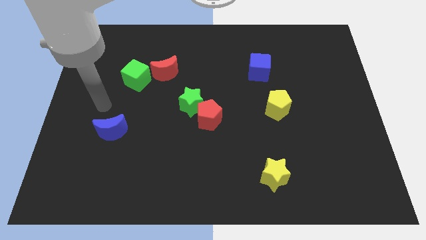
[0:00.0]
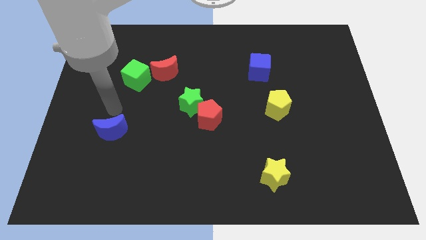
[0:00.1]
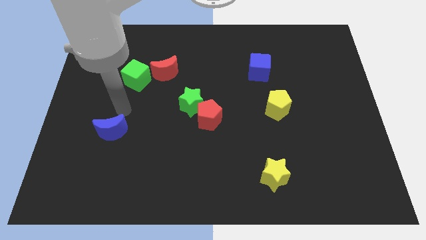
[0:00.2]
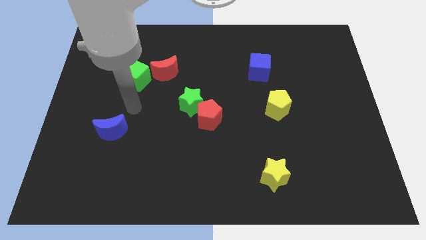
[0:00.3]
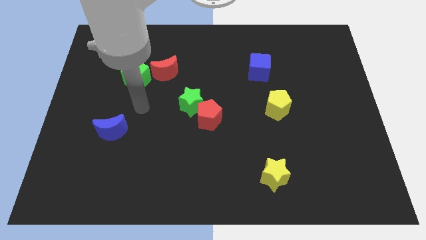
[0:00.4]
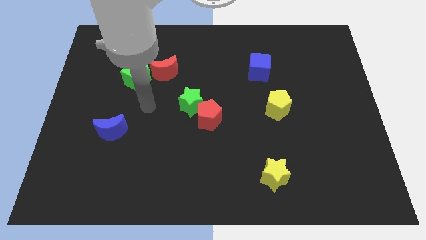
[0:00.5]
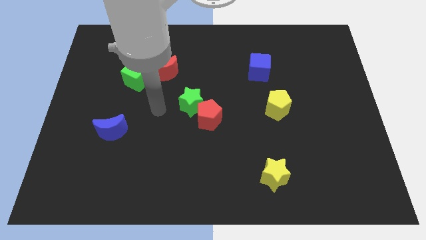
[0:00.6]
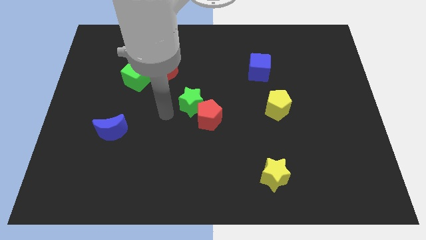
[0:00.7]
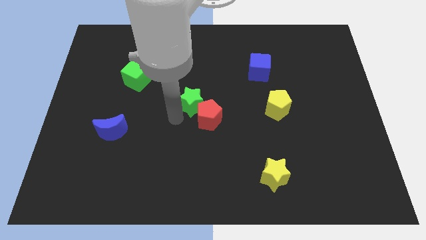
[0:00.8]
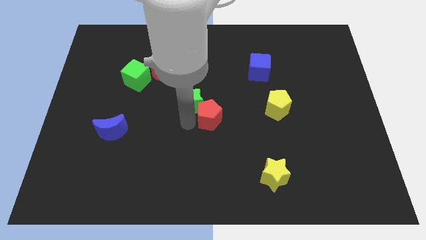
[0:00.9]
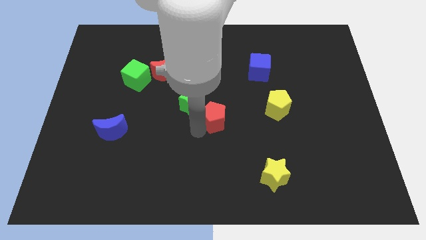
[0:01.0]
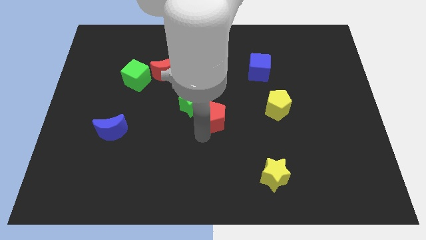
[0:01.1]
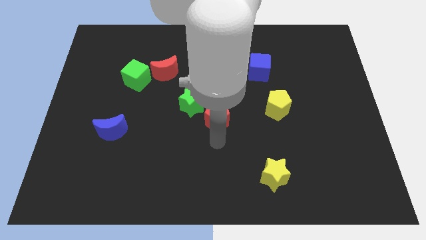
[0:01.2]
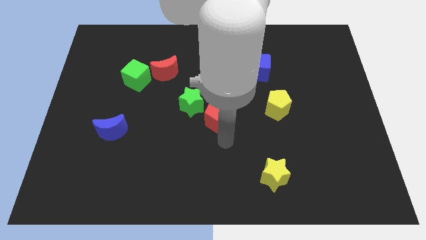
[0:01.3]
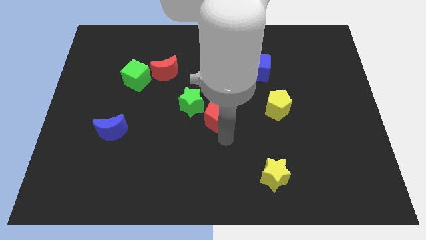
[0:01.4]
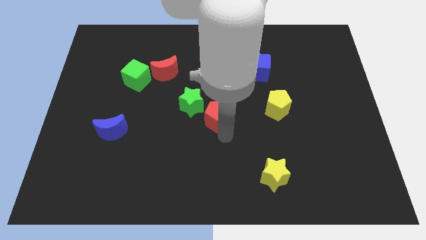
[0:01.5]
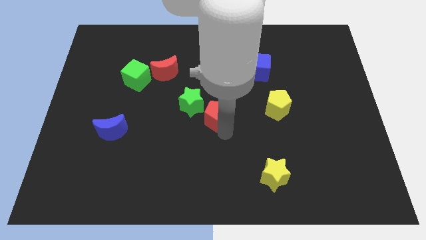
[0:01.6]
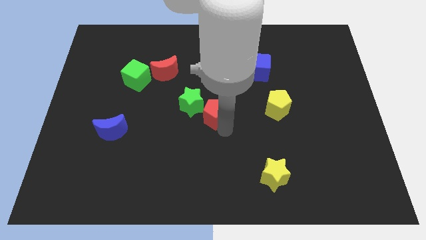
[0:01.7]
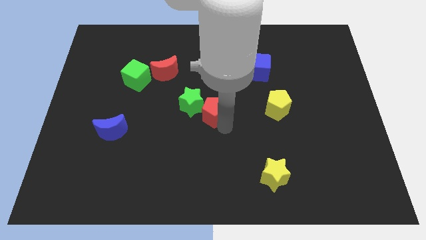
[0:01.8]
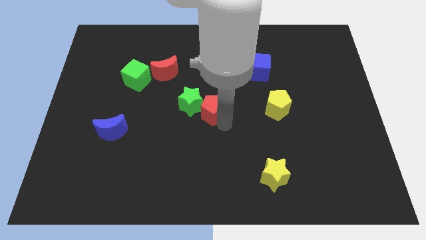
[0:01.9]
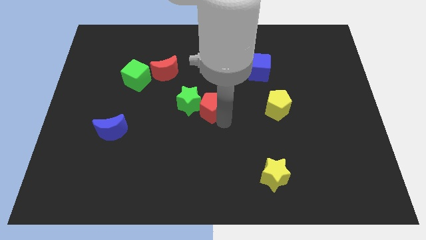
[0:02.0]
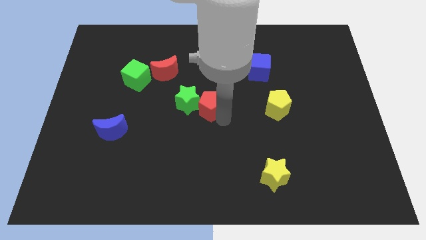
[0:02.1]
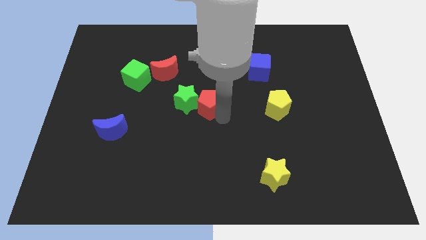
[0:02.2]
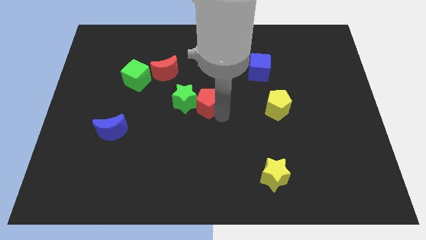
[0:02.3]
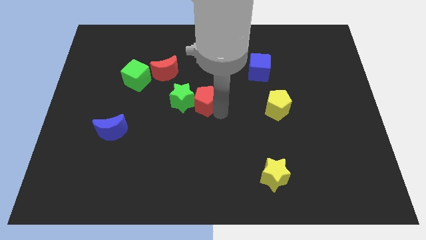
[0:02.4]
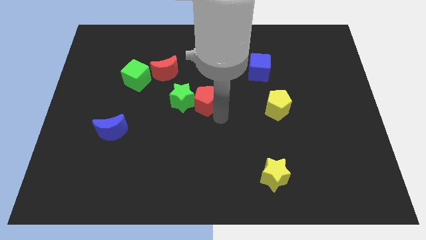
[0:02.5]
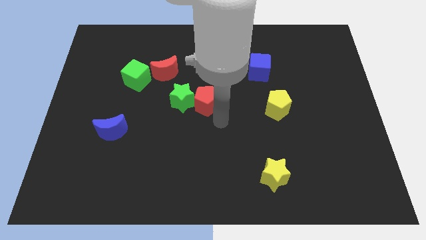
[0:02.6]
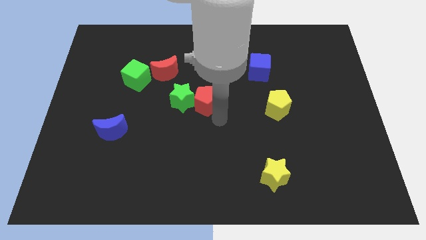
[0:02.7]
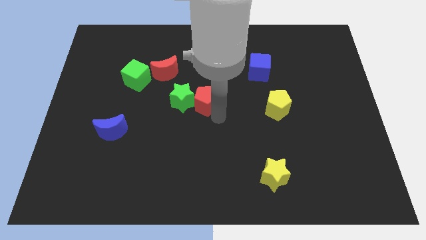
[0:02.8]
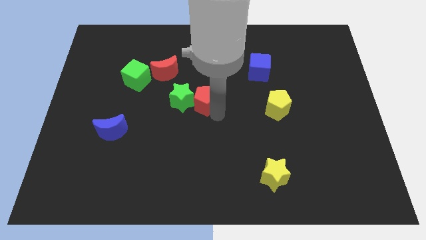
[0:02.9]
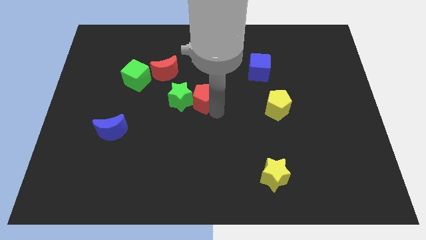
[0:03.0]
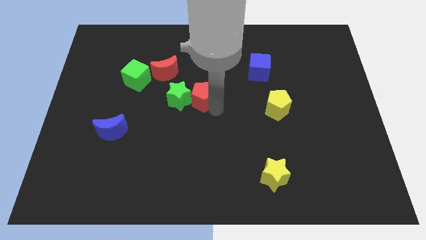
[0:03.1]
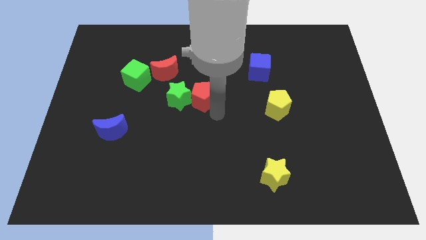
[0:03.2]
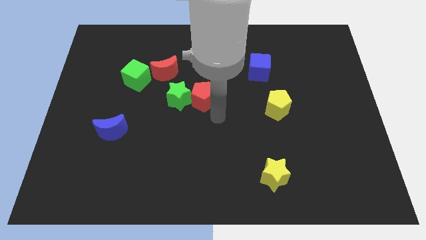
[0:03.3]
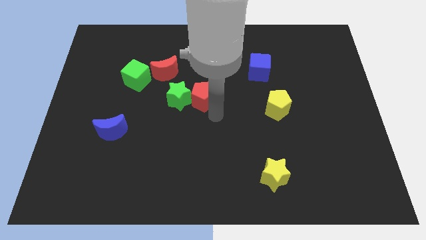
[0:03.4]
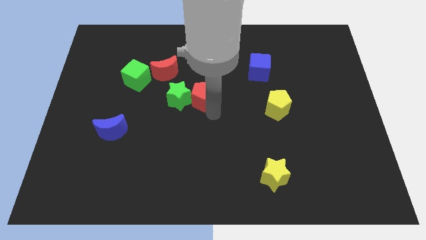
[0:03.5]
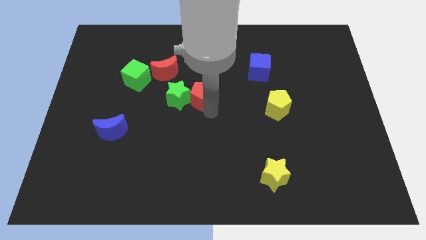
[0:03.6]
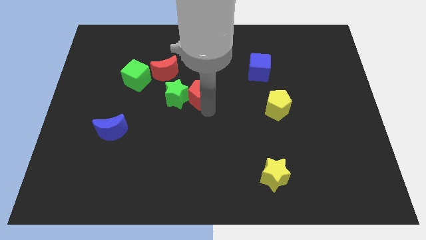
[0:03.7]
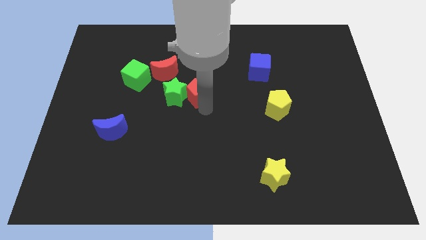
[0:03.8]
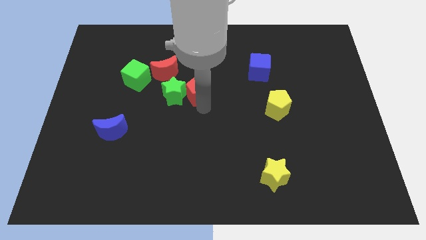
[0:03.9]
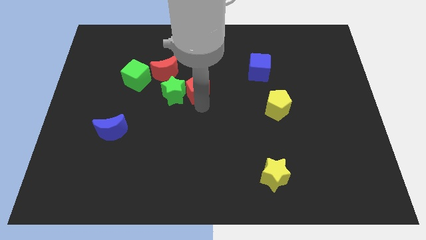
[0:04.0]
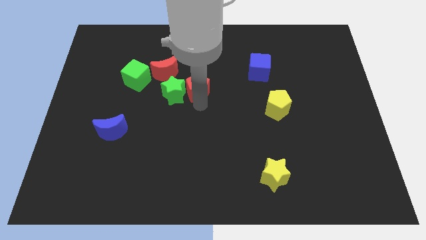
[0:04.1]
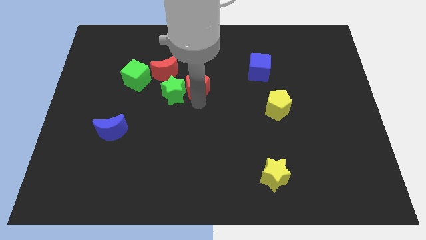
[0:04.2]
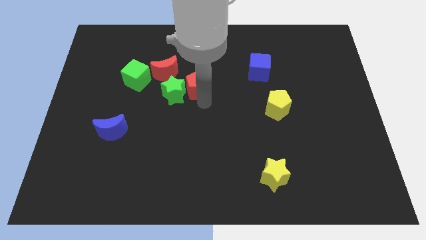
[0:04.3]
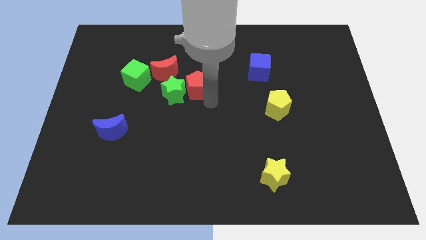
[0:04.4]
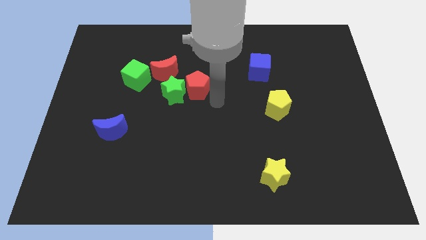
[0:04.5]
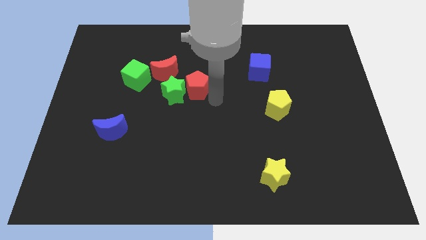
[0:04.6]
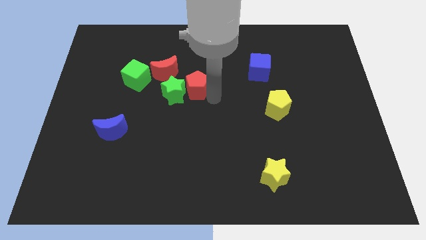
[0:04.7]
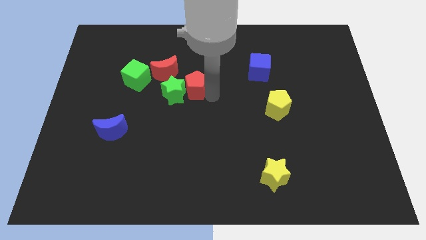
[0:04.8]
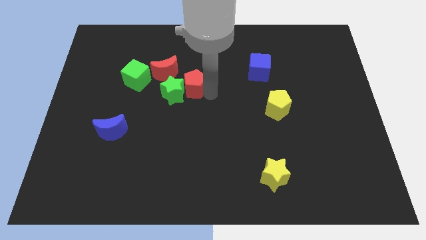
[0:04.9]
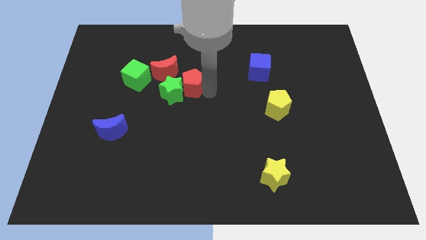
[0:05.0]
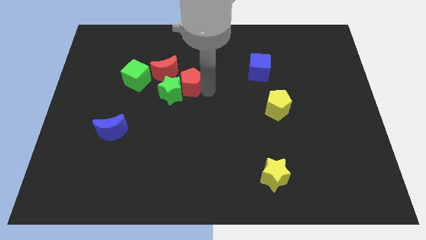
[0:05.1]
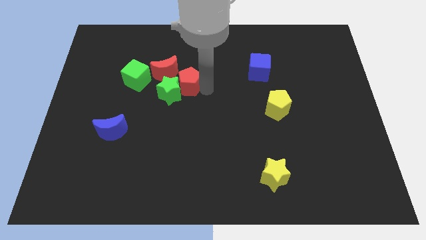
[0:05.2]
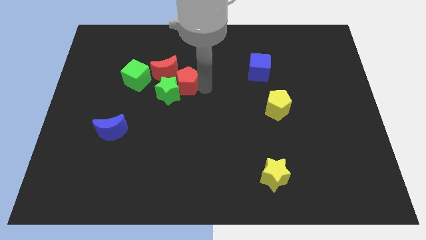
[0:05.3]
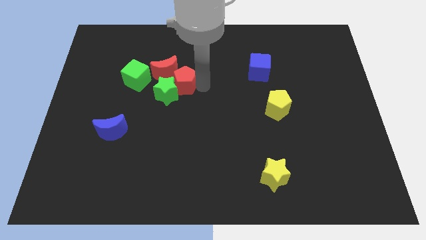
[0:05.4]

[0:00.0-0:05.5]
slide the red pentagon to the red moon

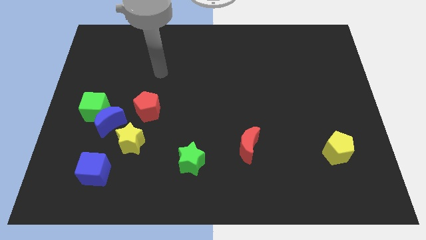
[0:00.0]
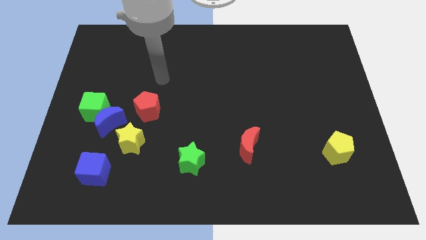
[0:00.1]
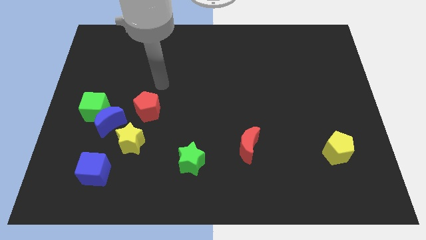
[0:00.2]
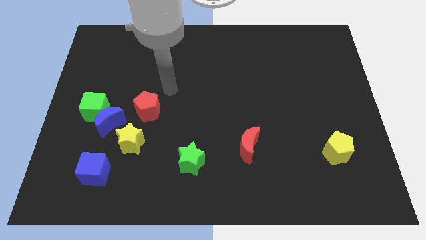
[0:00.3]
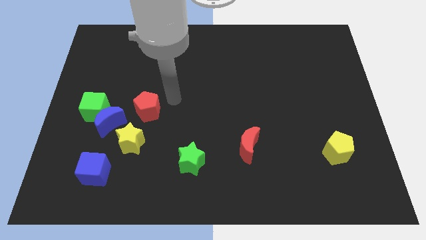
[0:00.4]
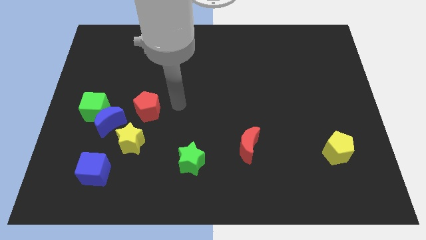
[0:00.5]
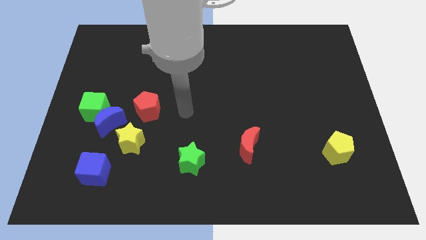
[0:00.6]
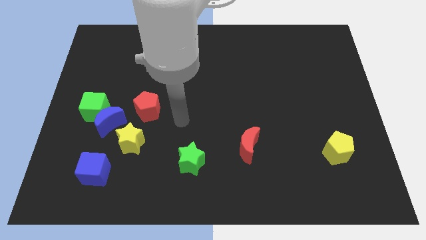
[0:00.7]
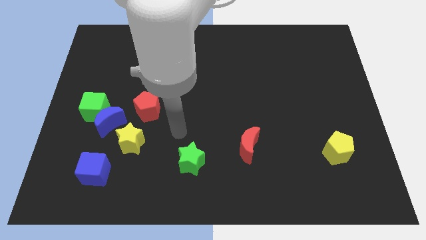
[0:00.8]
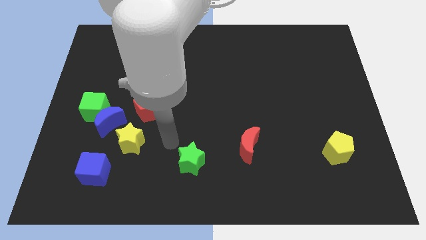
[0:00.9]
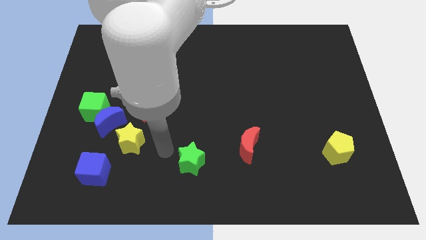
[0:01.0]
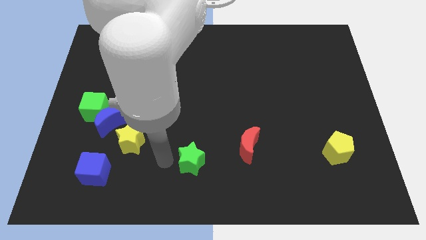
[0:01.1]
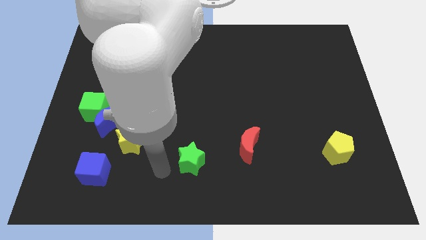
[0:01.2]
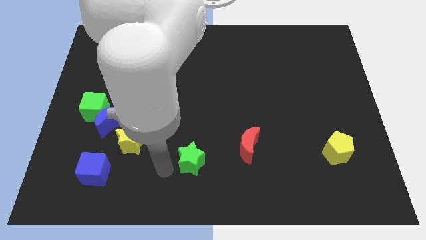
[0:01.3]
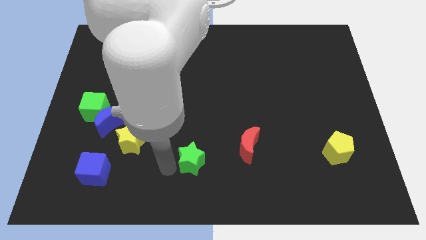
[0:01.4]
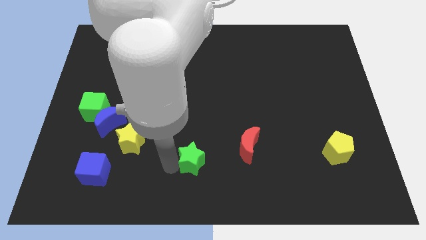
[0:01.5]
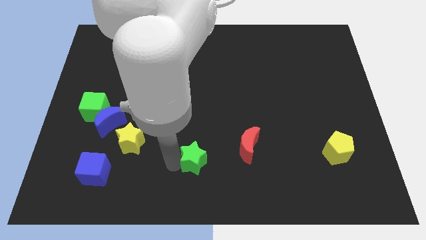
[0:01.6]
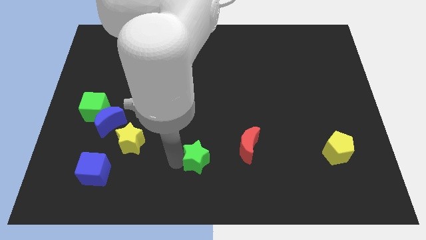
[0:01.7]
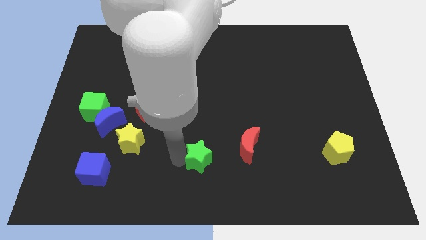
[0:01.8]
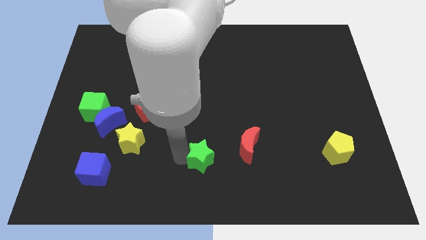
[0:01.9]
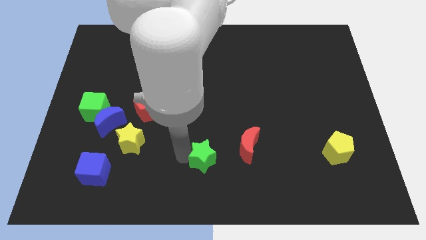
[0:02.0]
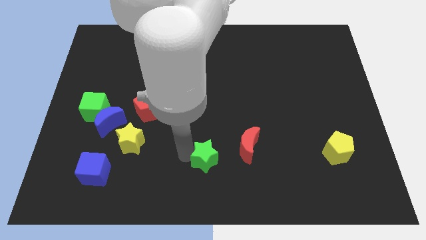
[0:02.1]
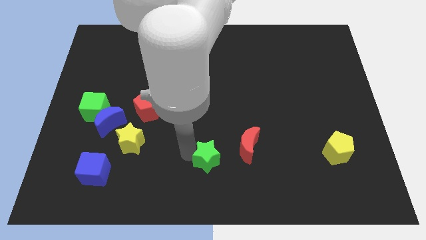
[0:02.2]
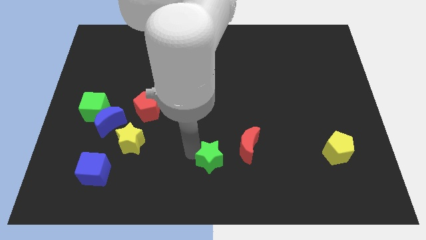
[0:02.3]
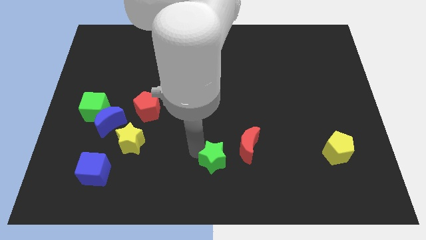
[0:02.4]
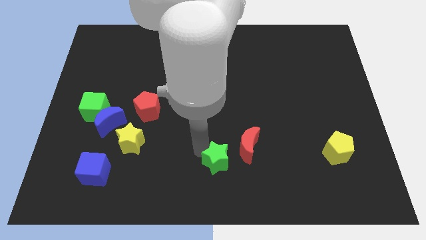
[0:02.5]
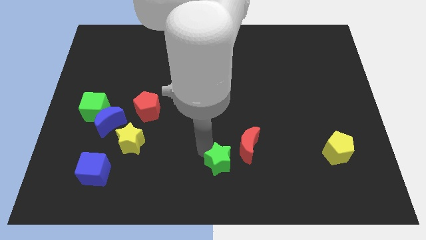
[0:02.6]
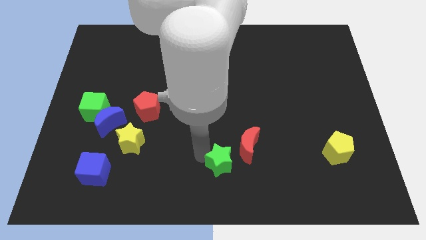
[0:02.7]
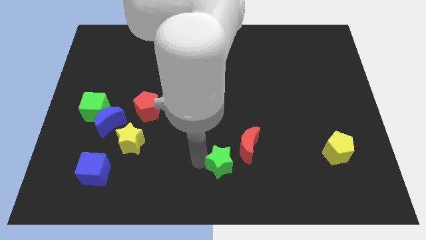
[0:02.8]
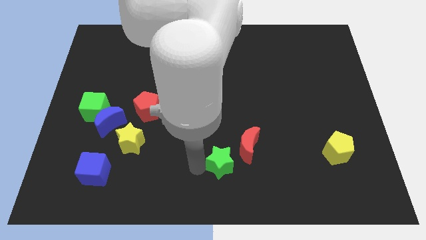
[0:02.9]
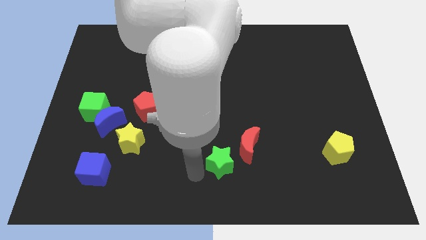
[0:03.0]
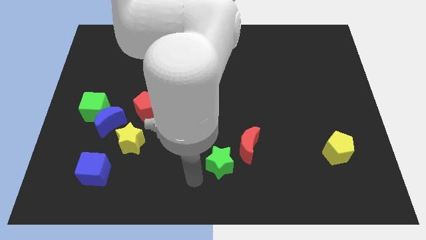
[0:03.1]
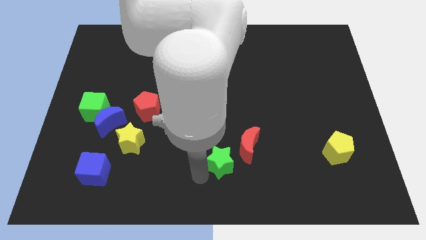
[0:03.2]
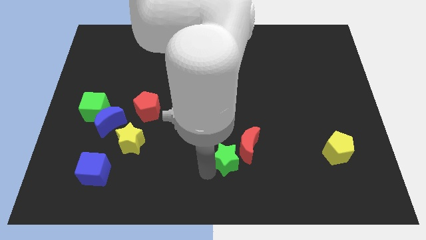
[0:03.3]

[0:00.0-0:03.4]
move the green star to the red moon
